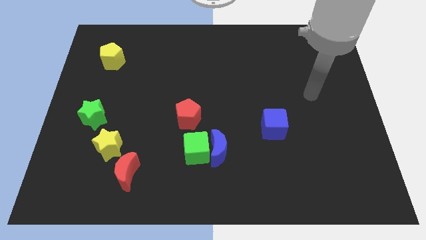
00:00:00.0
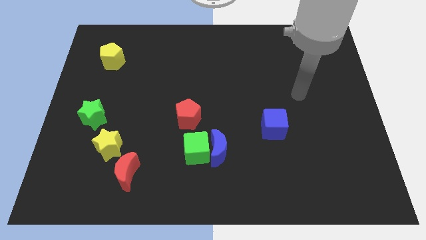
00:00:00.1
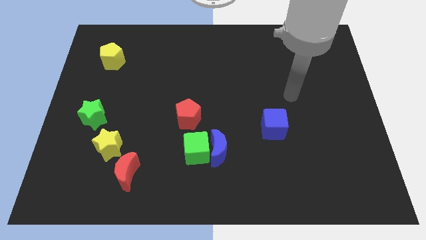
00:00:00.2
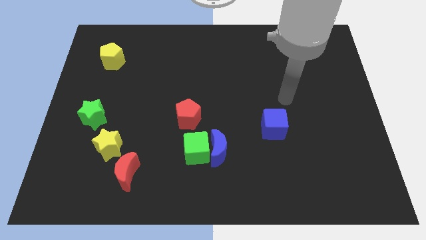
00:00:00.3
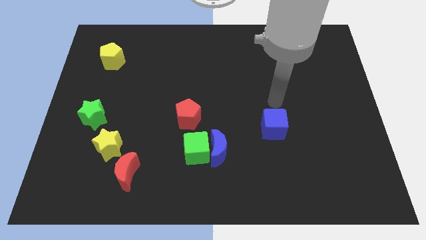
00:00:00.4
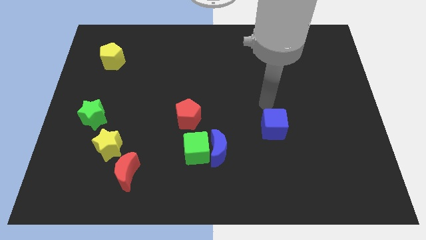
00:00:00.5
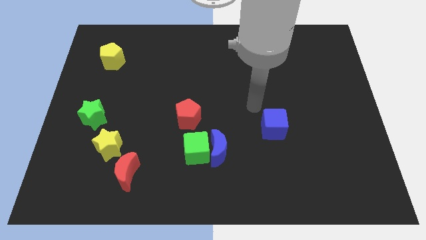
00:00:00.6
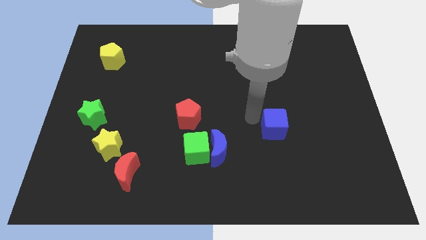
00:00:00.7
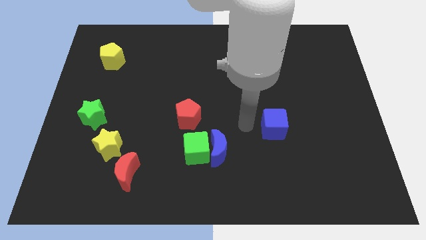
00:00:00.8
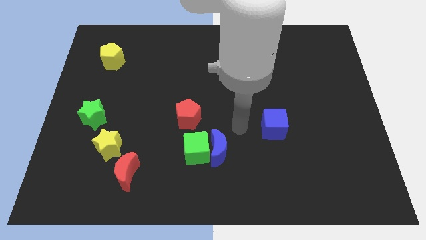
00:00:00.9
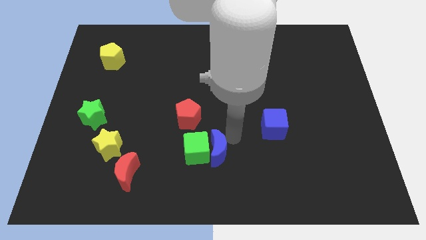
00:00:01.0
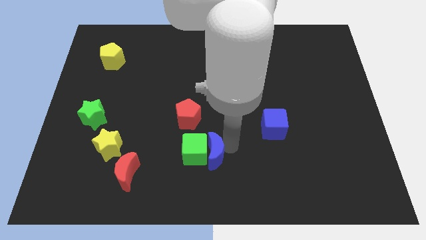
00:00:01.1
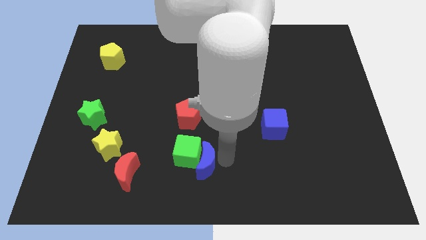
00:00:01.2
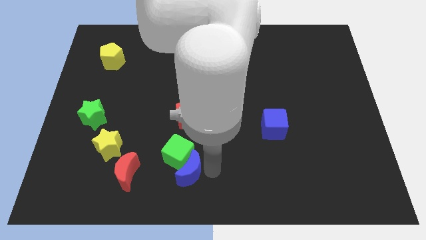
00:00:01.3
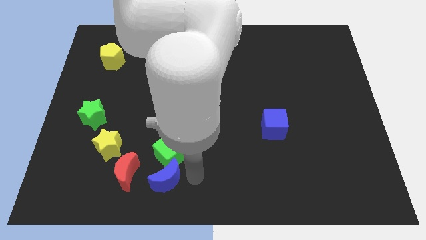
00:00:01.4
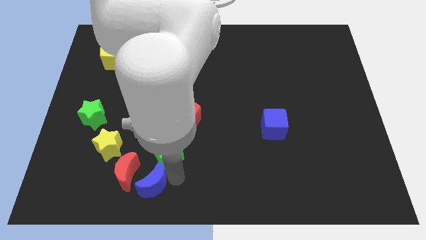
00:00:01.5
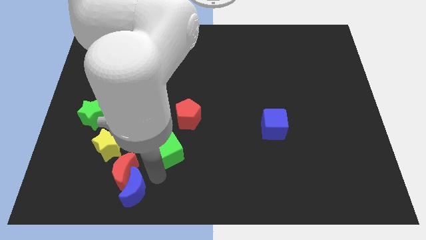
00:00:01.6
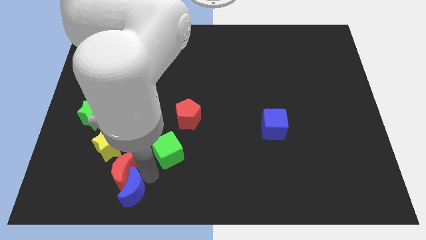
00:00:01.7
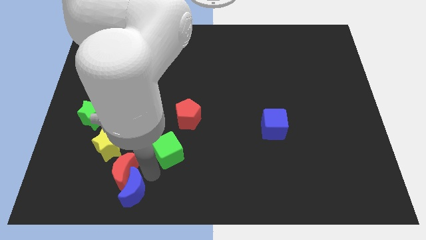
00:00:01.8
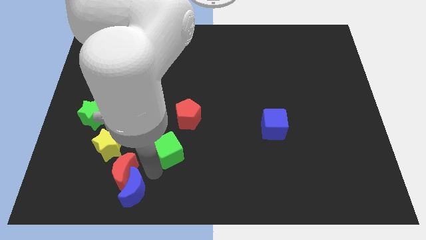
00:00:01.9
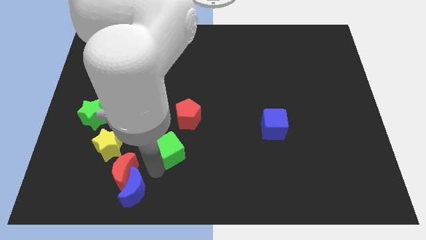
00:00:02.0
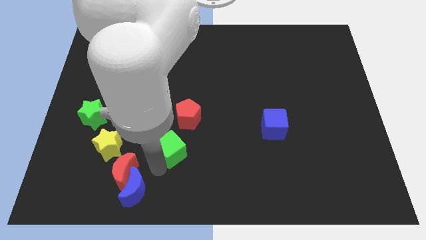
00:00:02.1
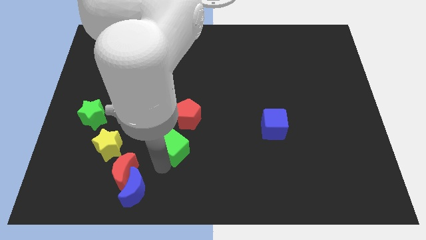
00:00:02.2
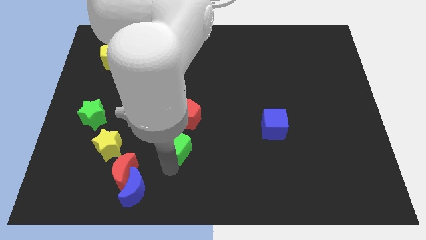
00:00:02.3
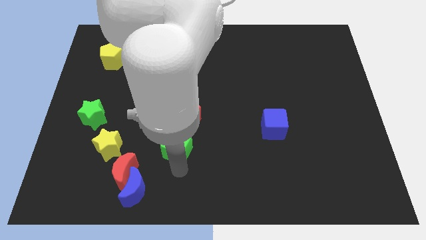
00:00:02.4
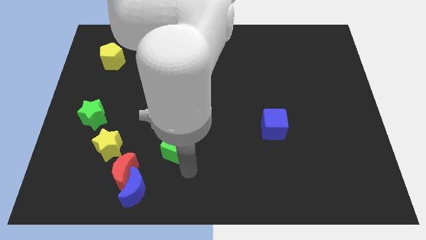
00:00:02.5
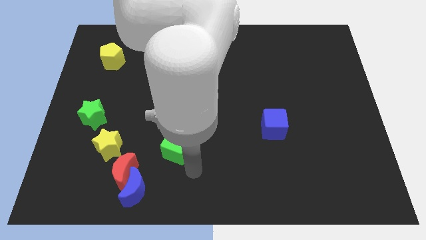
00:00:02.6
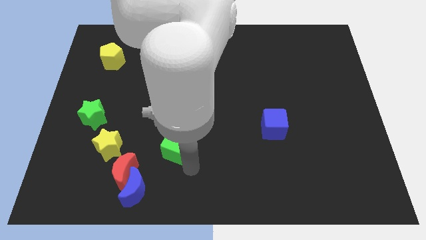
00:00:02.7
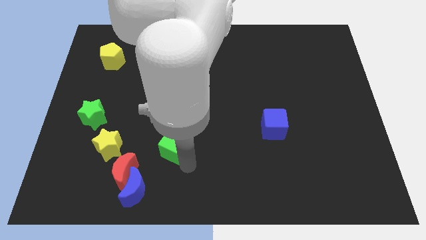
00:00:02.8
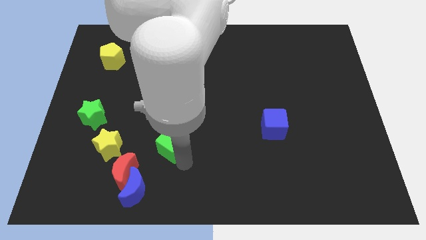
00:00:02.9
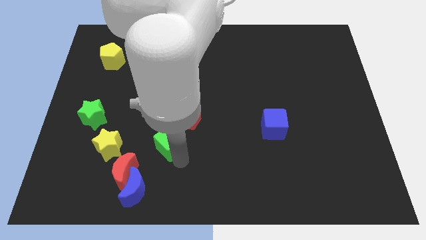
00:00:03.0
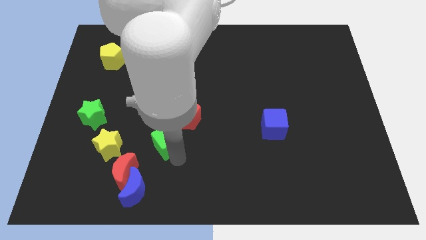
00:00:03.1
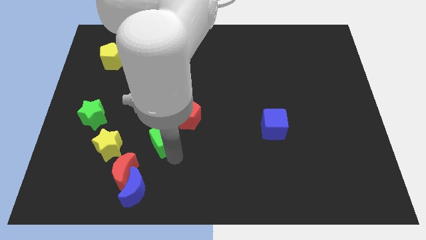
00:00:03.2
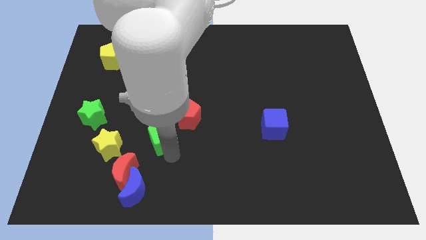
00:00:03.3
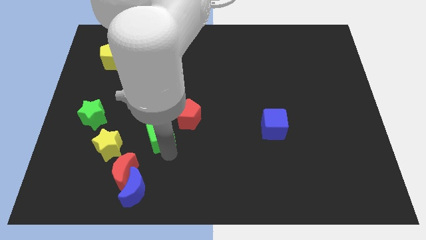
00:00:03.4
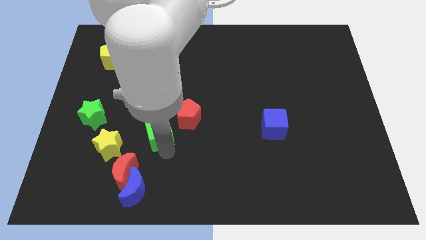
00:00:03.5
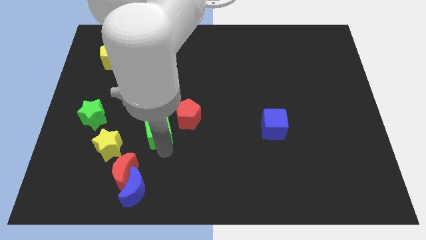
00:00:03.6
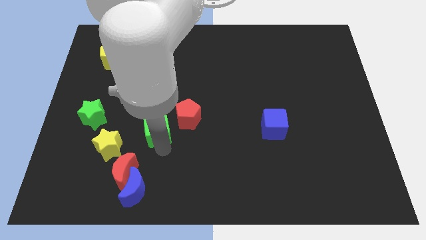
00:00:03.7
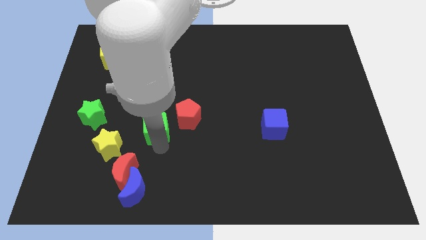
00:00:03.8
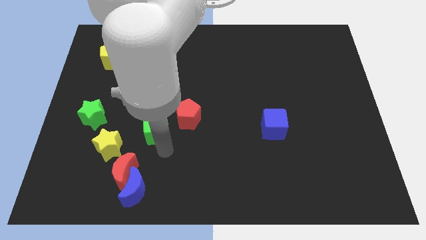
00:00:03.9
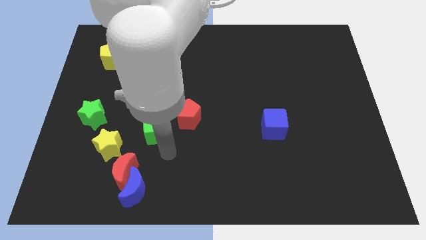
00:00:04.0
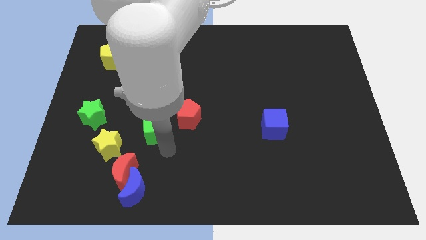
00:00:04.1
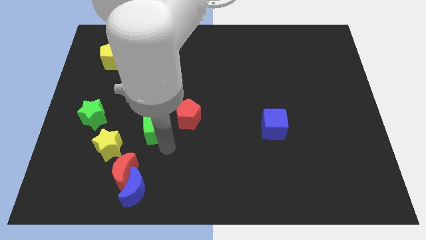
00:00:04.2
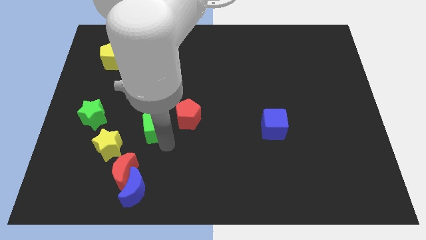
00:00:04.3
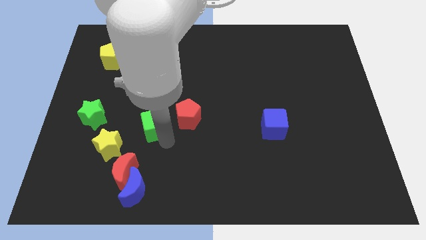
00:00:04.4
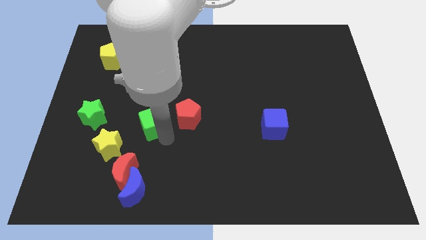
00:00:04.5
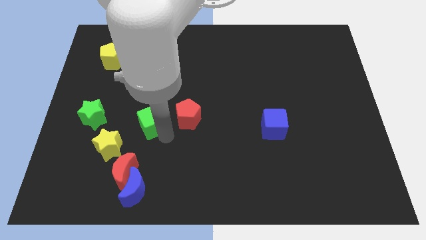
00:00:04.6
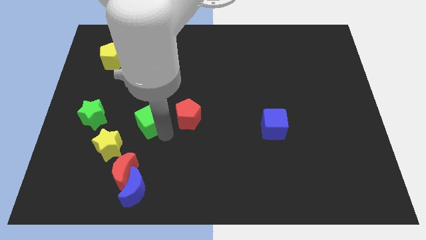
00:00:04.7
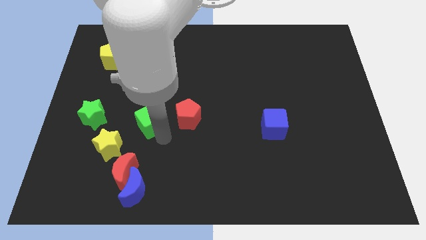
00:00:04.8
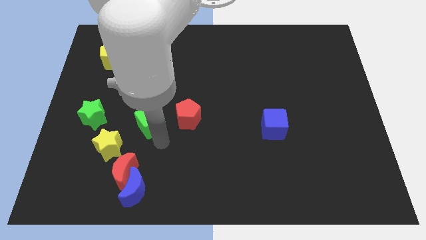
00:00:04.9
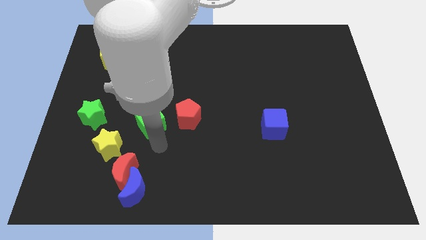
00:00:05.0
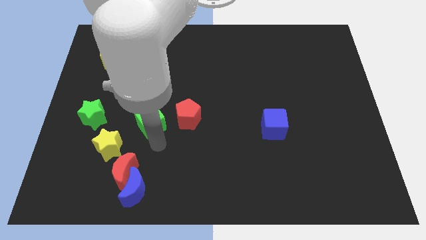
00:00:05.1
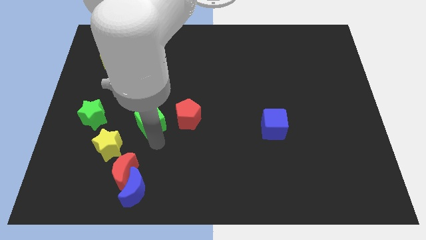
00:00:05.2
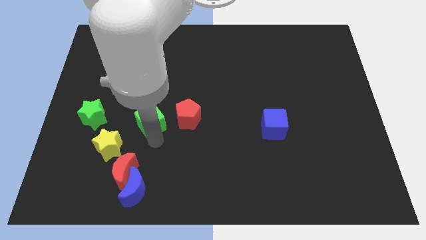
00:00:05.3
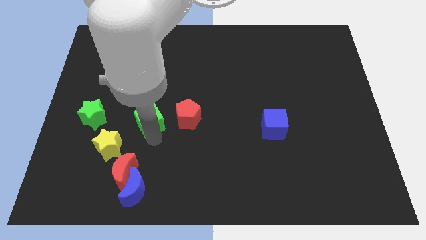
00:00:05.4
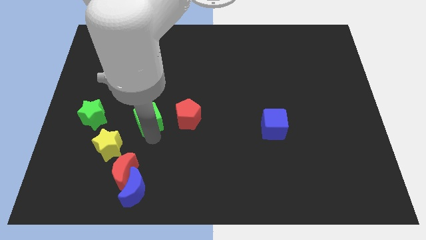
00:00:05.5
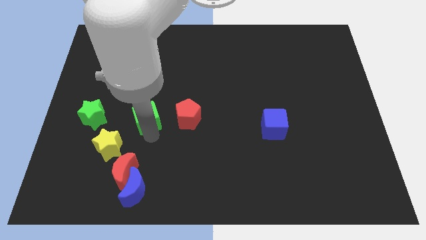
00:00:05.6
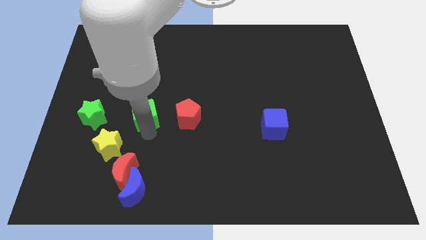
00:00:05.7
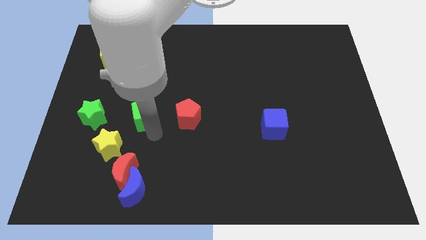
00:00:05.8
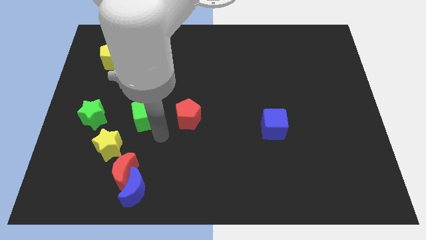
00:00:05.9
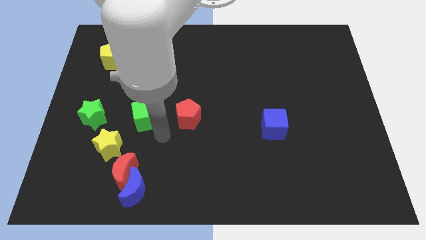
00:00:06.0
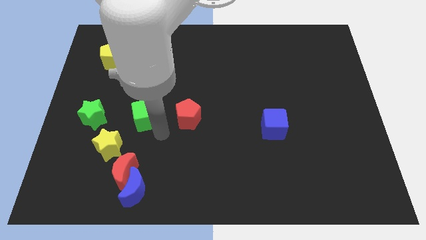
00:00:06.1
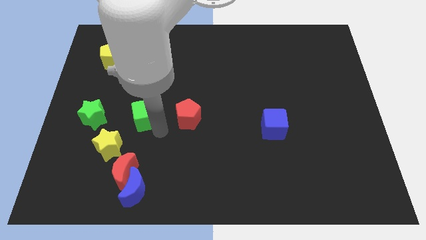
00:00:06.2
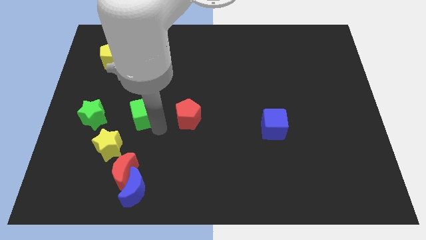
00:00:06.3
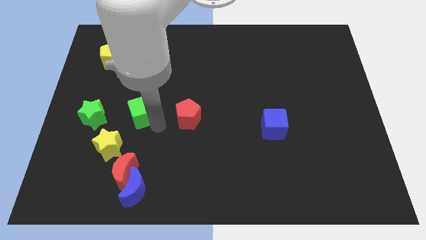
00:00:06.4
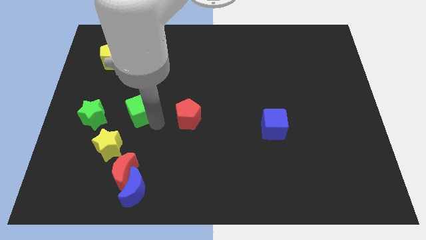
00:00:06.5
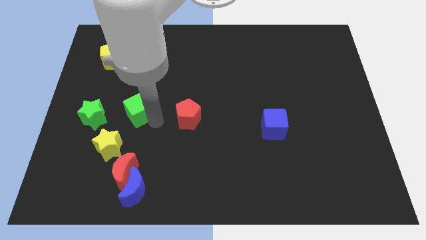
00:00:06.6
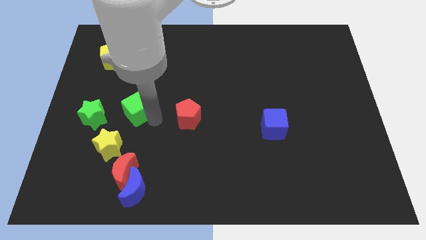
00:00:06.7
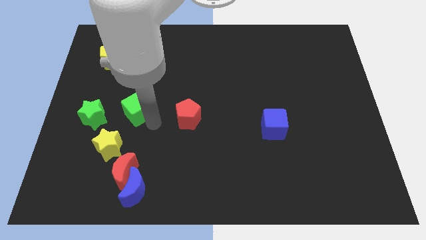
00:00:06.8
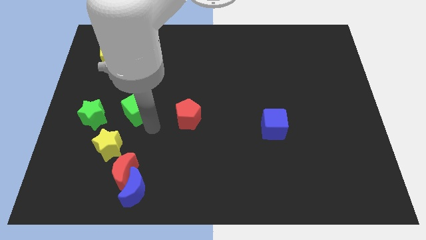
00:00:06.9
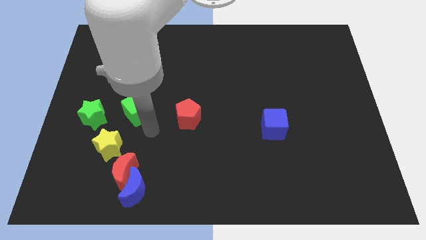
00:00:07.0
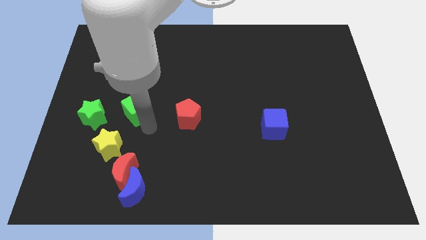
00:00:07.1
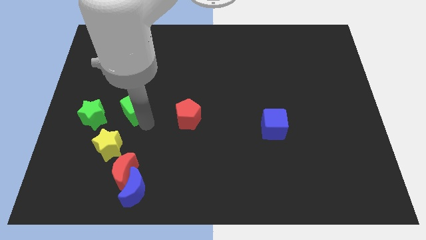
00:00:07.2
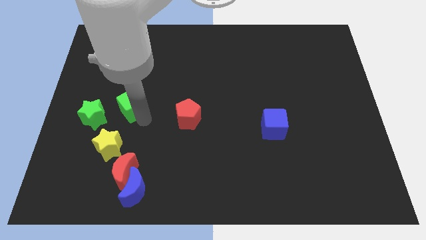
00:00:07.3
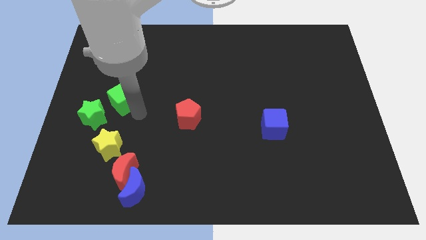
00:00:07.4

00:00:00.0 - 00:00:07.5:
slide the green cube upwards and then to the left

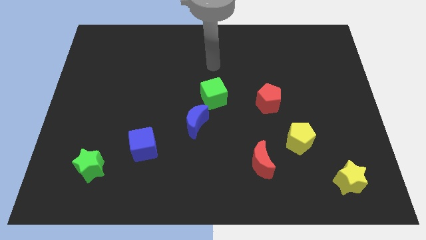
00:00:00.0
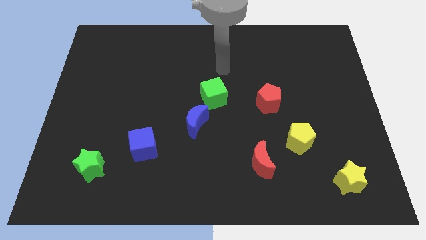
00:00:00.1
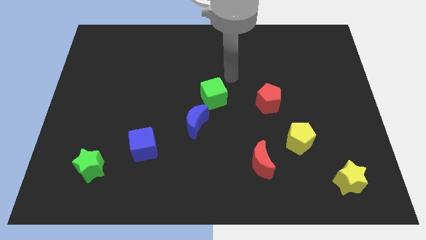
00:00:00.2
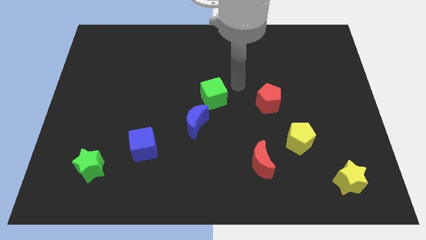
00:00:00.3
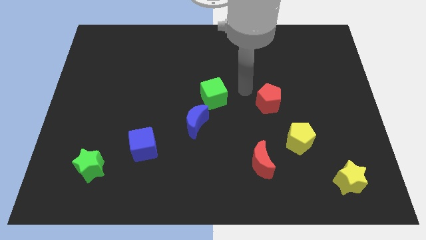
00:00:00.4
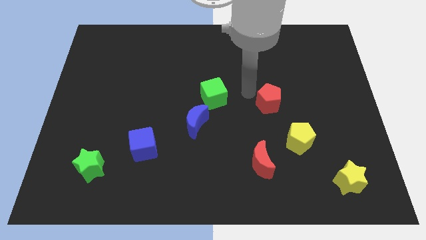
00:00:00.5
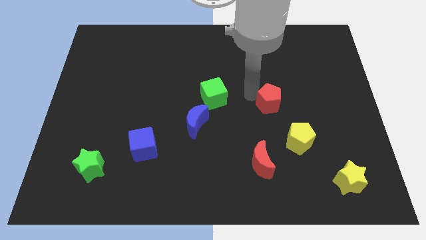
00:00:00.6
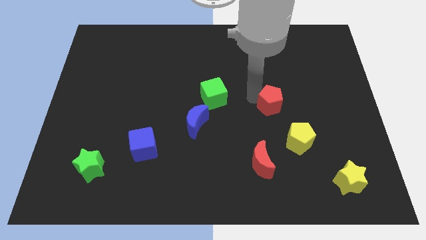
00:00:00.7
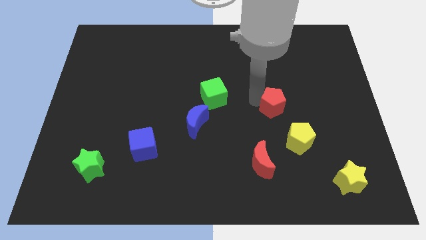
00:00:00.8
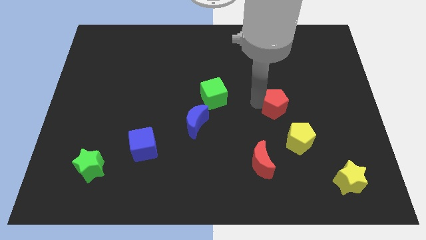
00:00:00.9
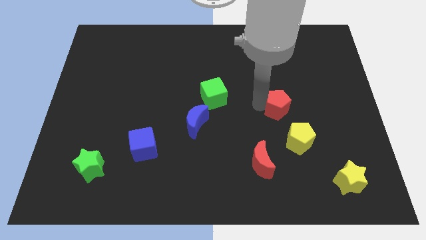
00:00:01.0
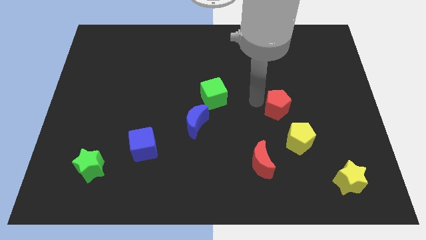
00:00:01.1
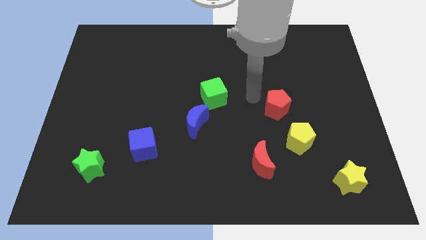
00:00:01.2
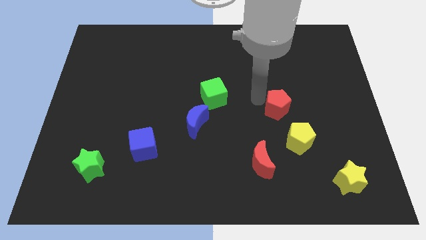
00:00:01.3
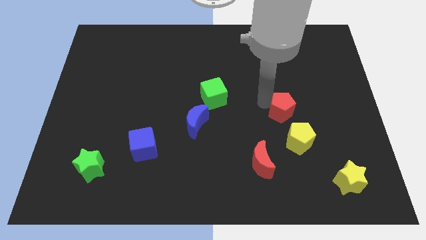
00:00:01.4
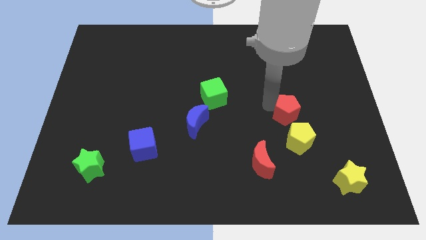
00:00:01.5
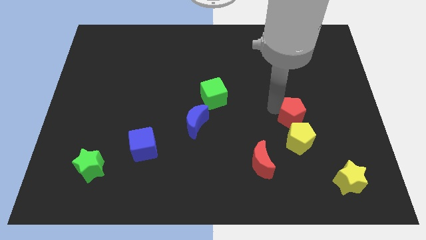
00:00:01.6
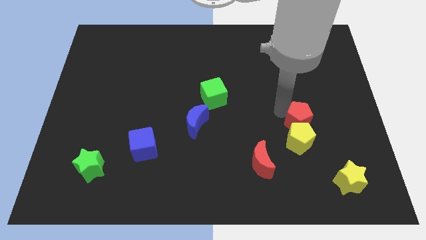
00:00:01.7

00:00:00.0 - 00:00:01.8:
slide the red pentagon downwards and then right a little
